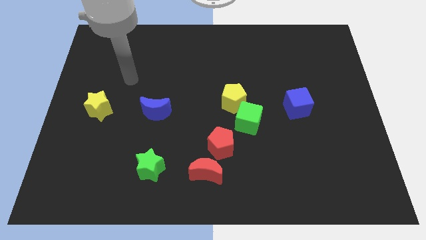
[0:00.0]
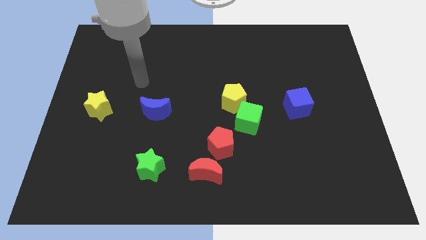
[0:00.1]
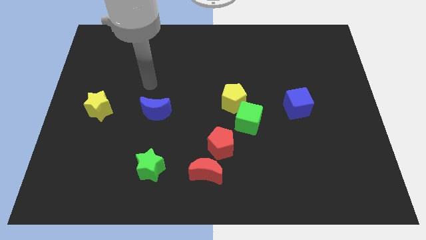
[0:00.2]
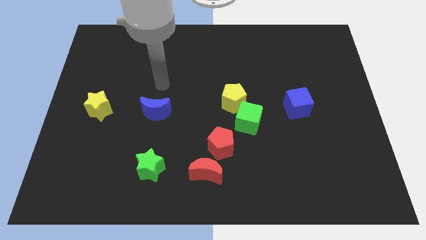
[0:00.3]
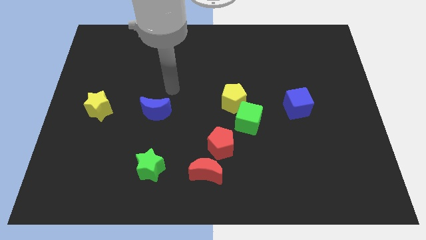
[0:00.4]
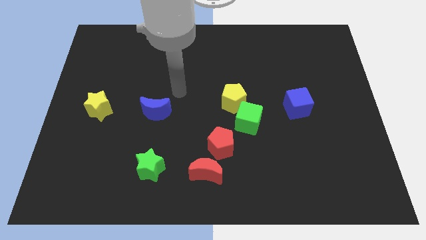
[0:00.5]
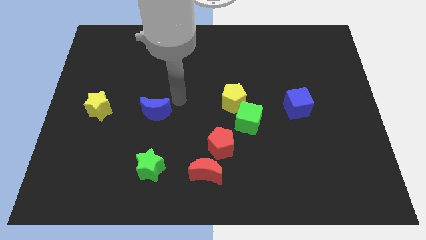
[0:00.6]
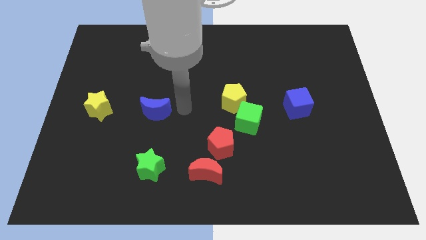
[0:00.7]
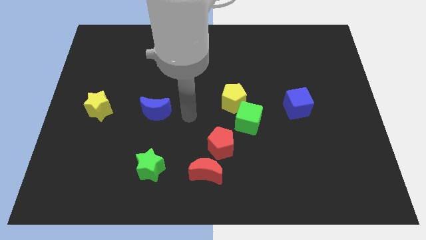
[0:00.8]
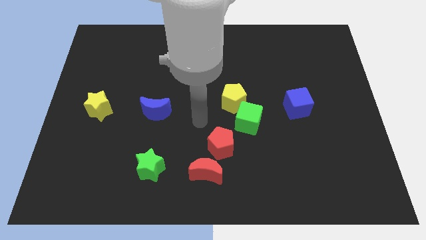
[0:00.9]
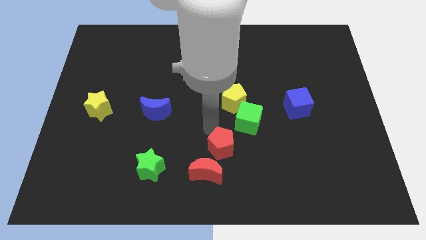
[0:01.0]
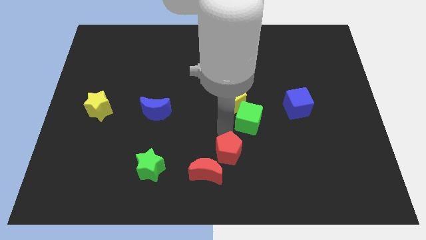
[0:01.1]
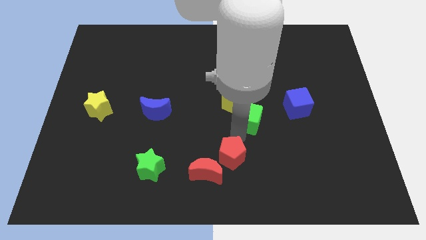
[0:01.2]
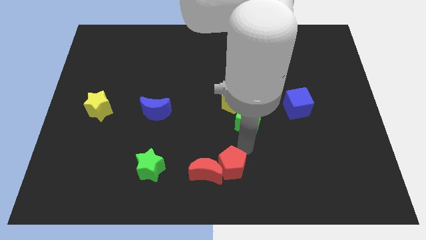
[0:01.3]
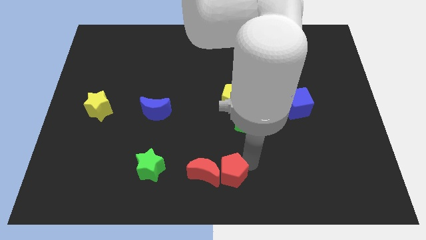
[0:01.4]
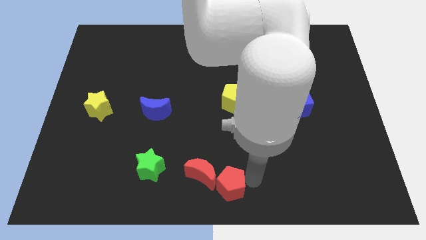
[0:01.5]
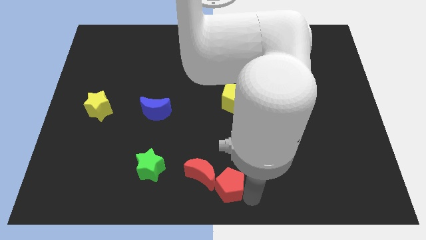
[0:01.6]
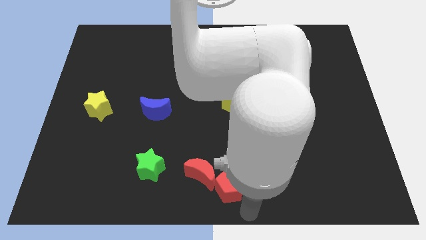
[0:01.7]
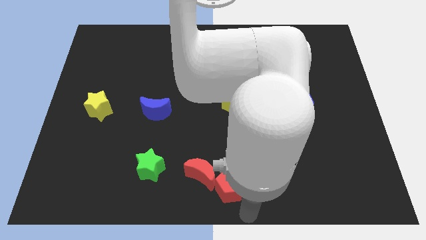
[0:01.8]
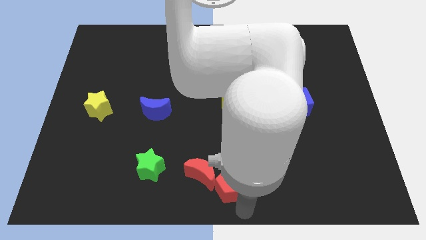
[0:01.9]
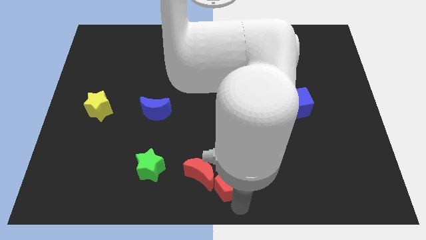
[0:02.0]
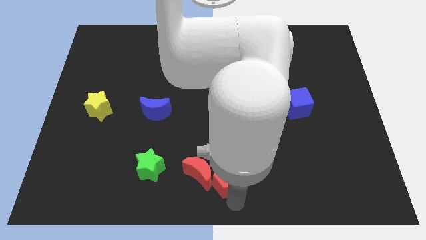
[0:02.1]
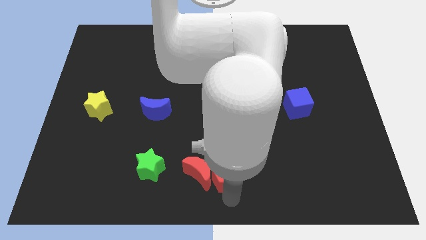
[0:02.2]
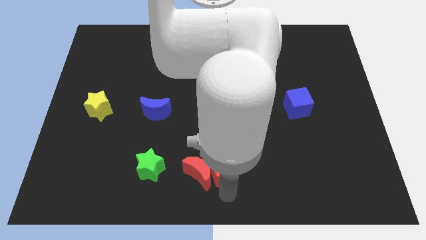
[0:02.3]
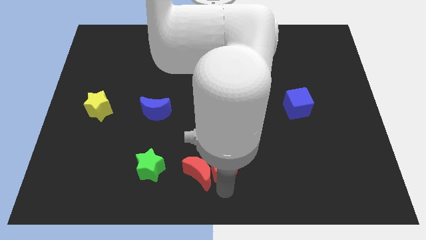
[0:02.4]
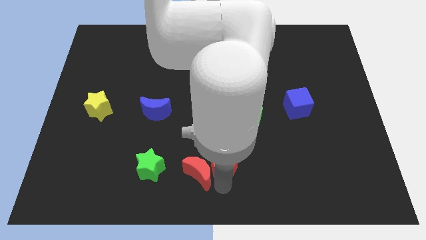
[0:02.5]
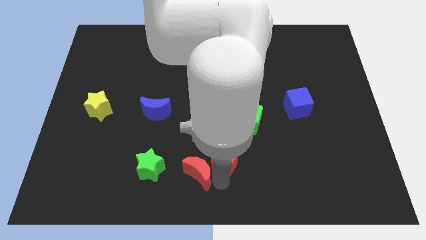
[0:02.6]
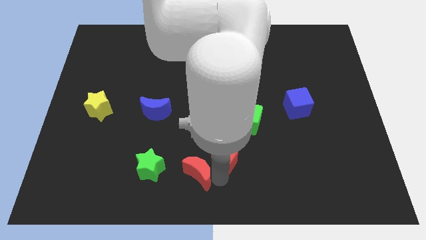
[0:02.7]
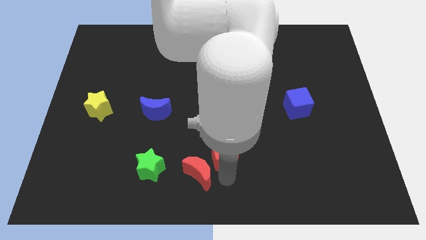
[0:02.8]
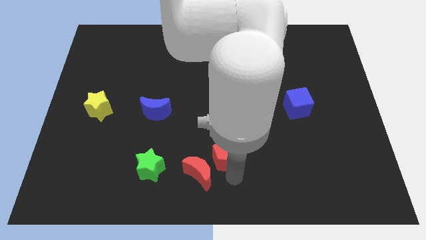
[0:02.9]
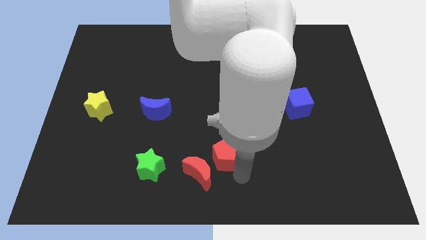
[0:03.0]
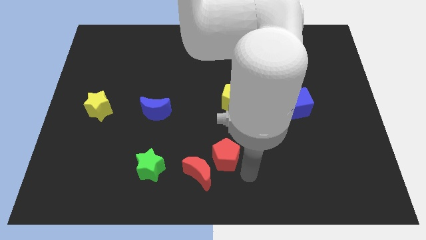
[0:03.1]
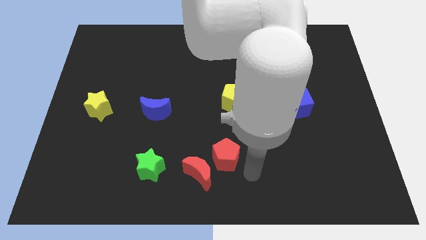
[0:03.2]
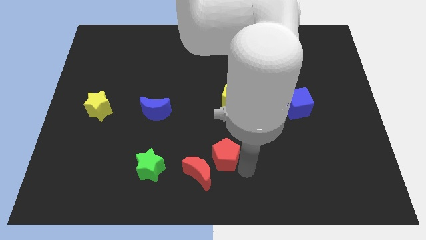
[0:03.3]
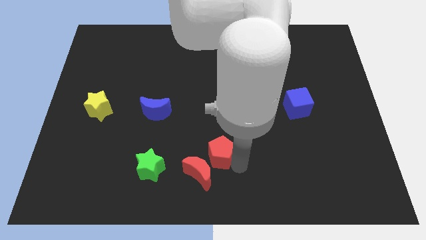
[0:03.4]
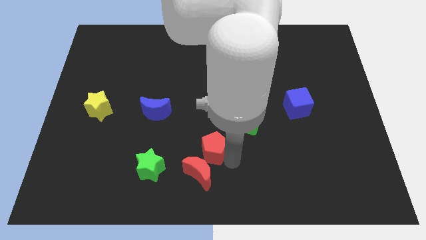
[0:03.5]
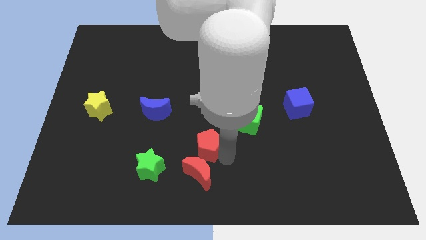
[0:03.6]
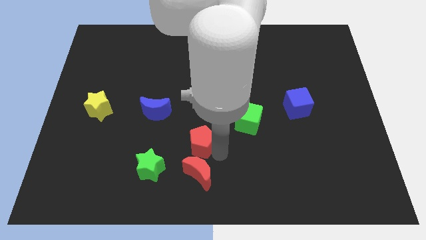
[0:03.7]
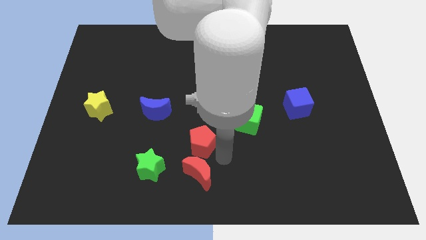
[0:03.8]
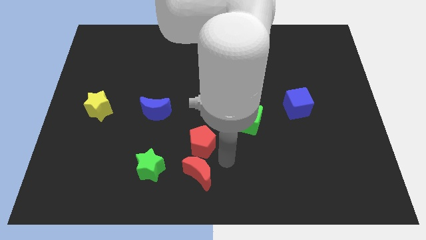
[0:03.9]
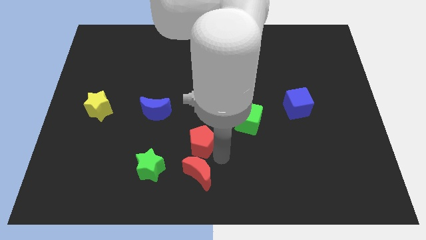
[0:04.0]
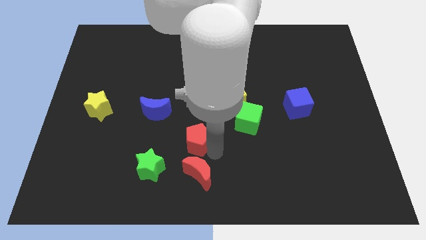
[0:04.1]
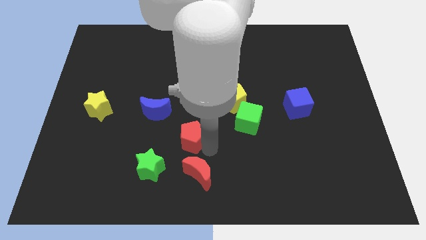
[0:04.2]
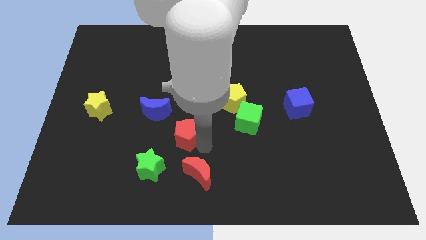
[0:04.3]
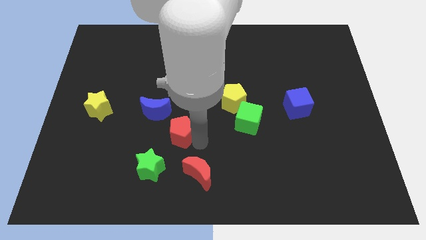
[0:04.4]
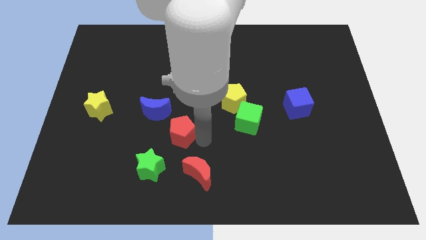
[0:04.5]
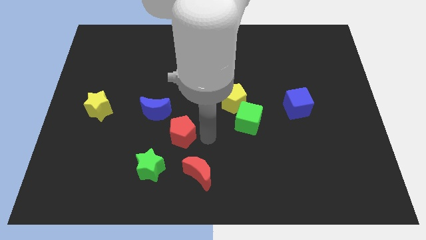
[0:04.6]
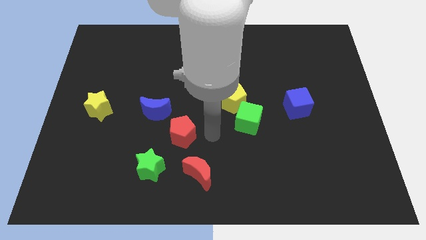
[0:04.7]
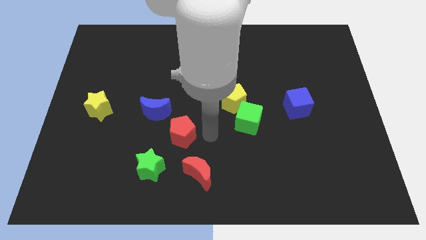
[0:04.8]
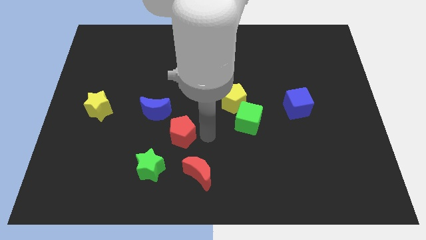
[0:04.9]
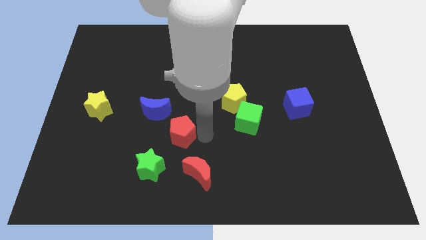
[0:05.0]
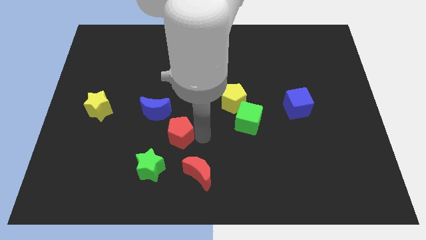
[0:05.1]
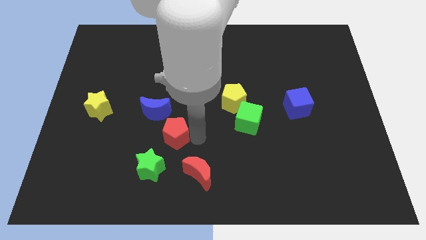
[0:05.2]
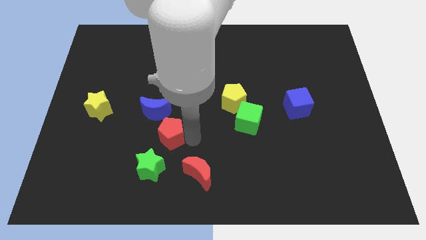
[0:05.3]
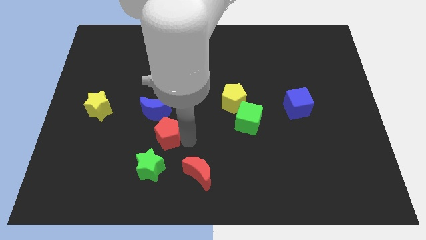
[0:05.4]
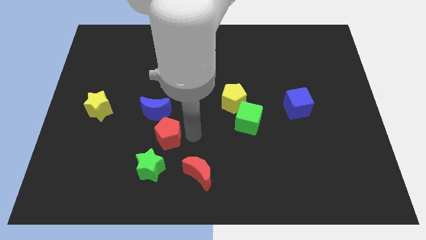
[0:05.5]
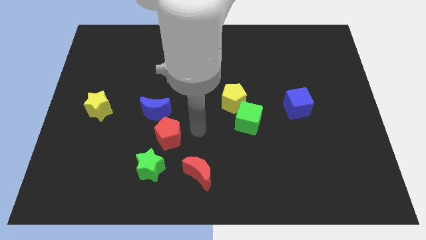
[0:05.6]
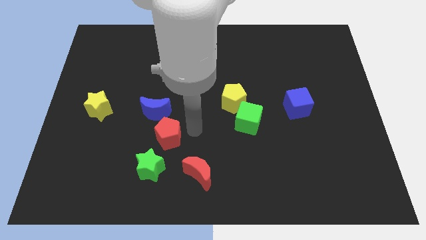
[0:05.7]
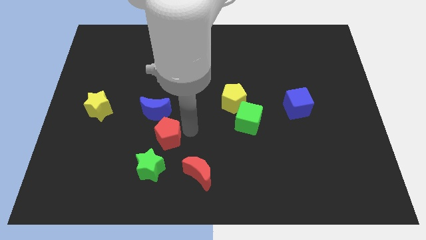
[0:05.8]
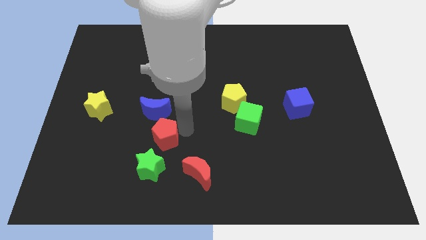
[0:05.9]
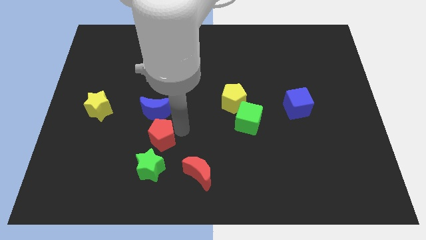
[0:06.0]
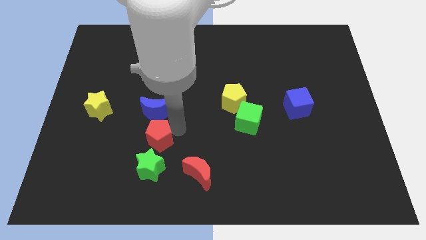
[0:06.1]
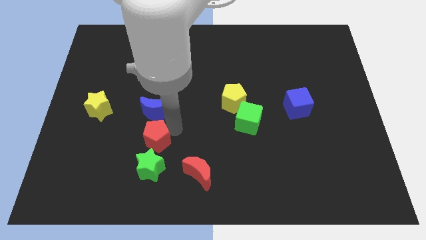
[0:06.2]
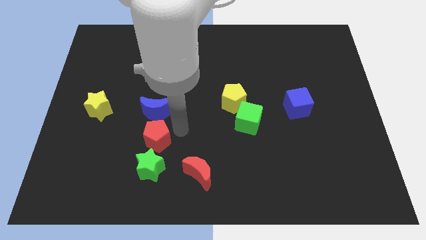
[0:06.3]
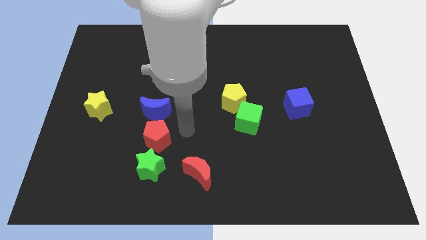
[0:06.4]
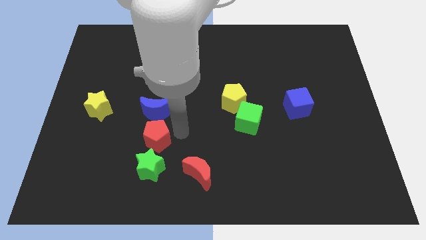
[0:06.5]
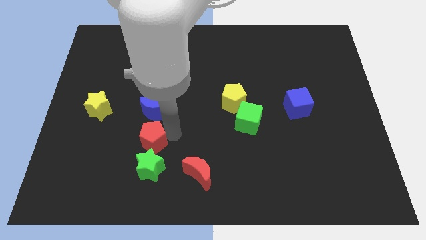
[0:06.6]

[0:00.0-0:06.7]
put the red pentagon to the top left side of the green star
